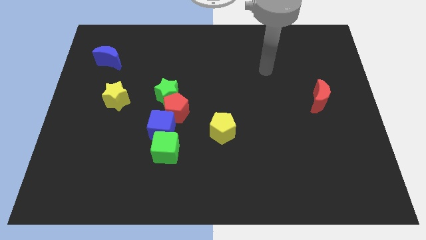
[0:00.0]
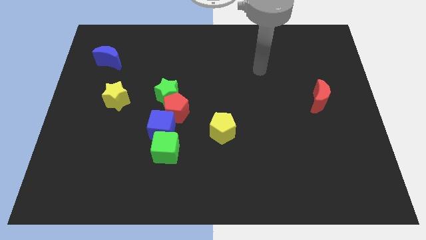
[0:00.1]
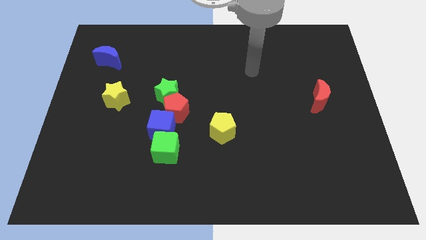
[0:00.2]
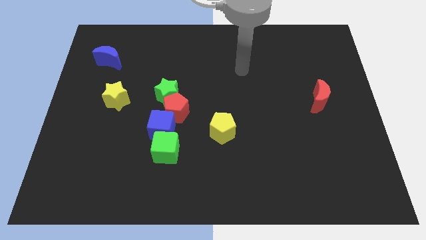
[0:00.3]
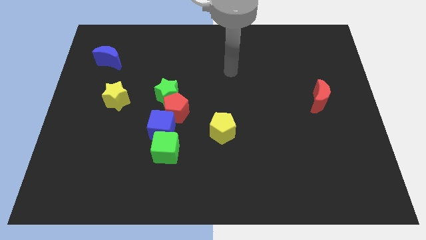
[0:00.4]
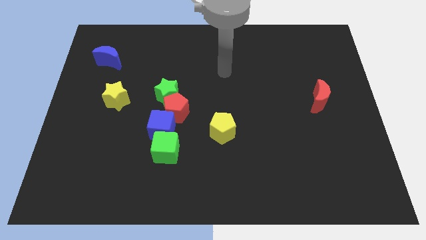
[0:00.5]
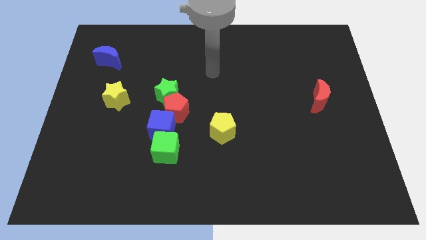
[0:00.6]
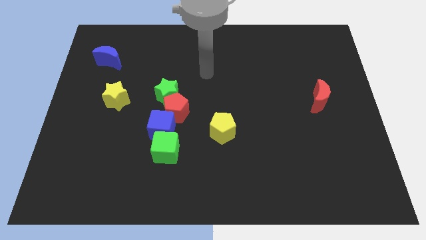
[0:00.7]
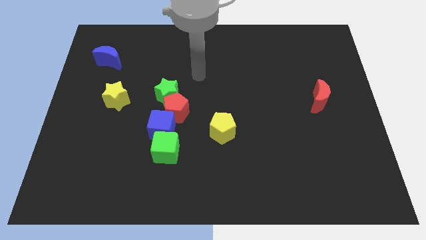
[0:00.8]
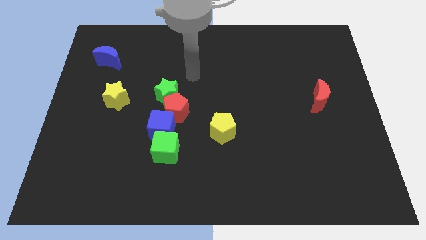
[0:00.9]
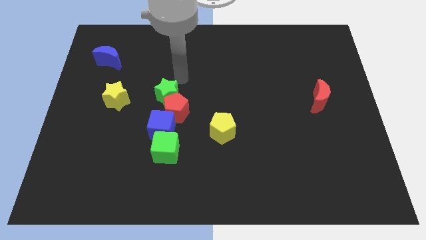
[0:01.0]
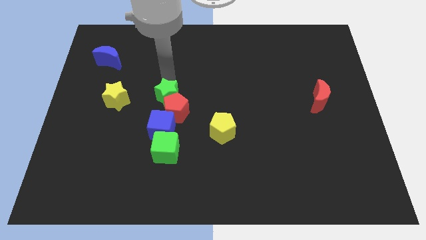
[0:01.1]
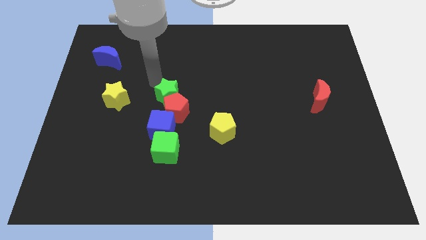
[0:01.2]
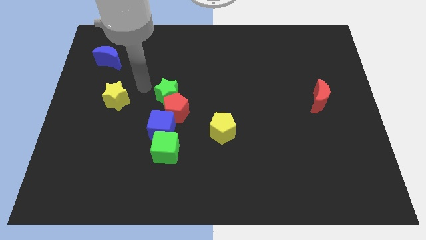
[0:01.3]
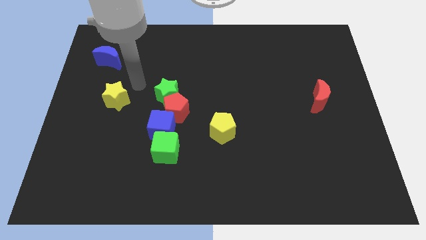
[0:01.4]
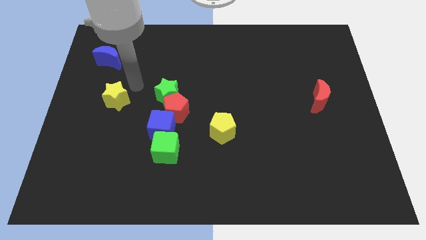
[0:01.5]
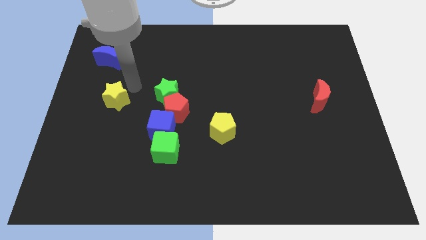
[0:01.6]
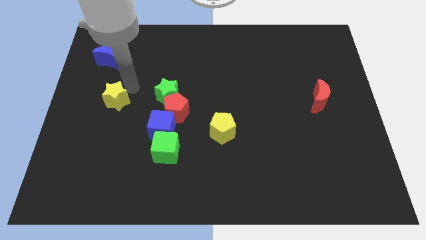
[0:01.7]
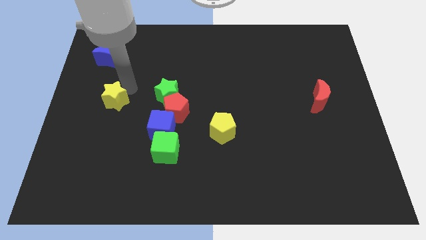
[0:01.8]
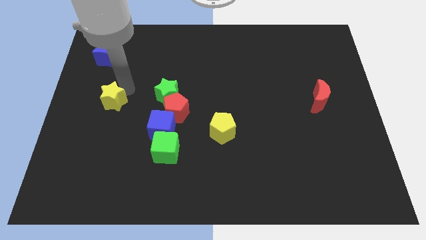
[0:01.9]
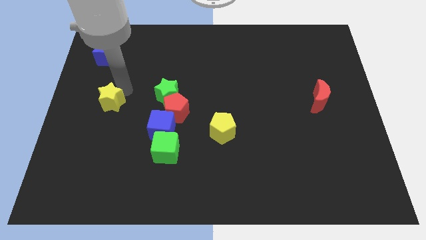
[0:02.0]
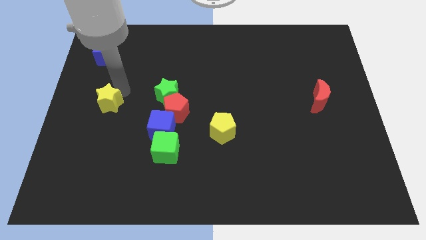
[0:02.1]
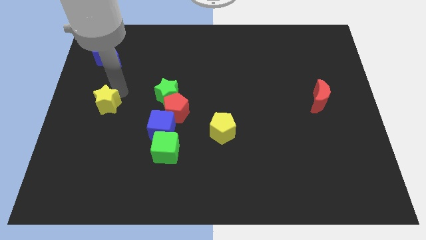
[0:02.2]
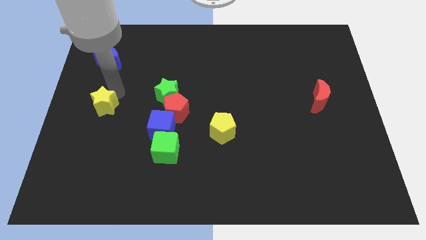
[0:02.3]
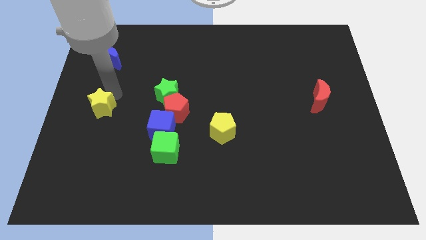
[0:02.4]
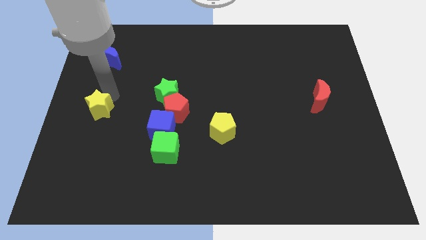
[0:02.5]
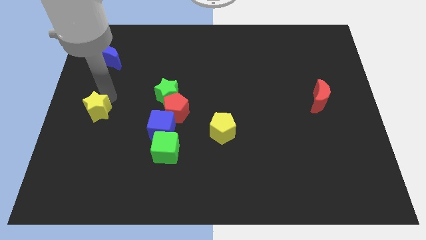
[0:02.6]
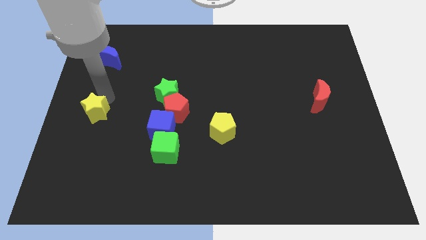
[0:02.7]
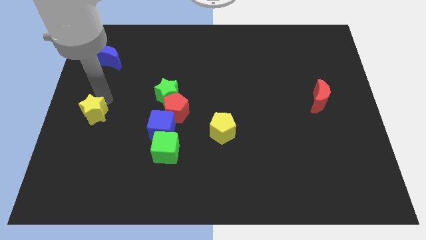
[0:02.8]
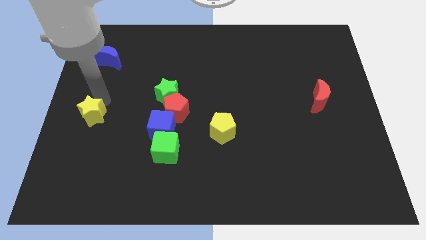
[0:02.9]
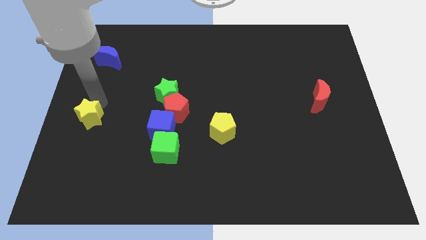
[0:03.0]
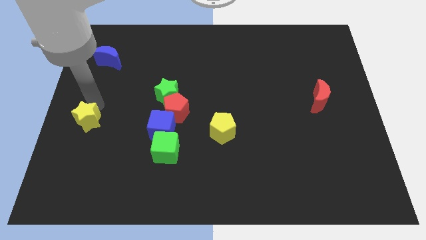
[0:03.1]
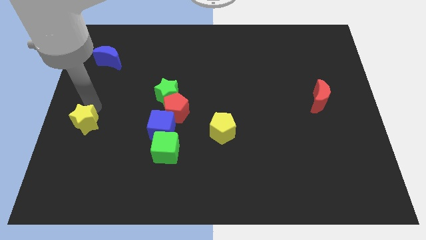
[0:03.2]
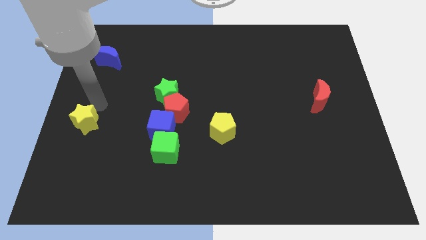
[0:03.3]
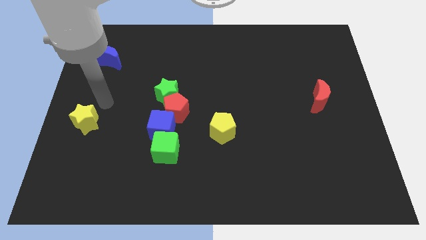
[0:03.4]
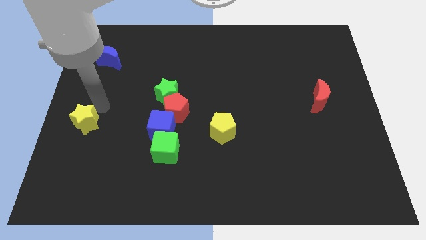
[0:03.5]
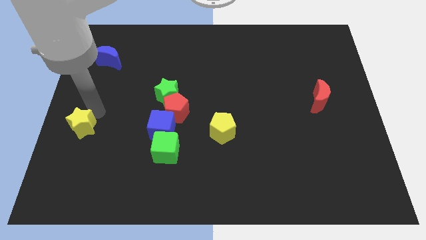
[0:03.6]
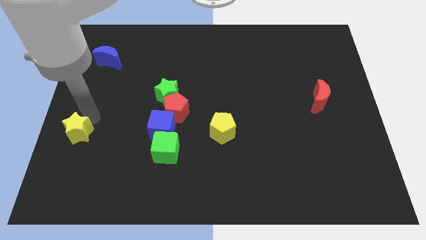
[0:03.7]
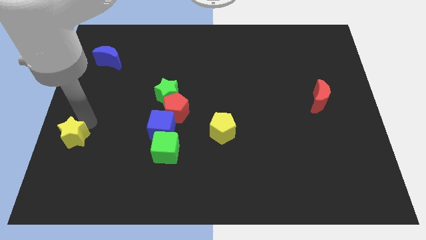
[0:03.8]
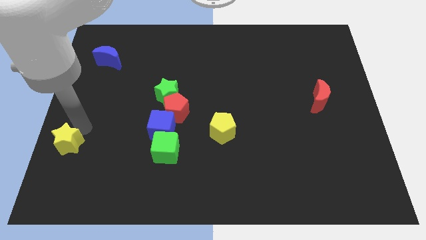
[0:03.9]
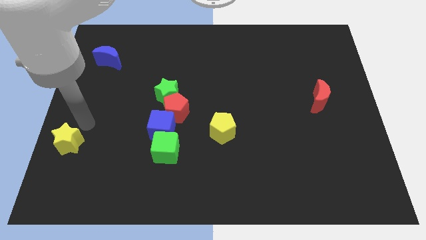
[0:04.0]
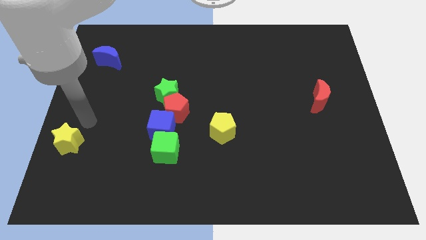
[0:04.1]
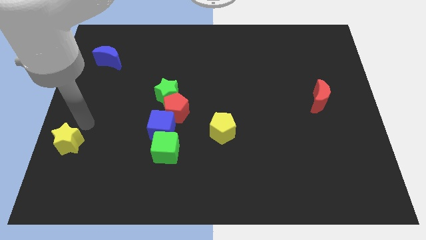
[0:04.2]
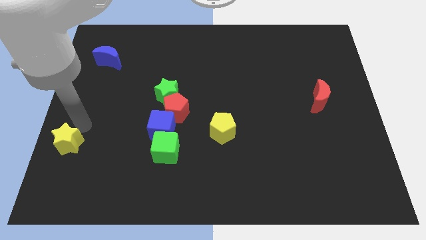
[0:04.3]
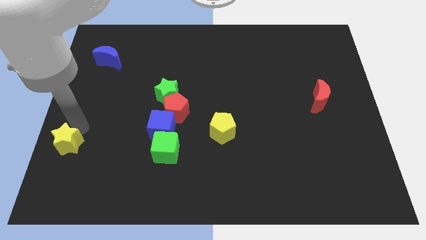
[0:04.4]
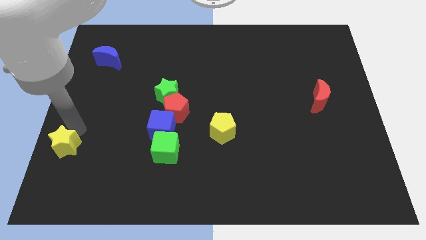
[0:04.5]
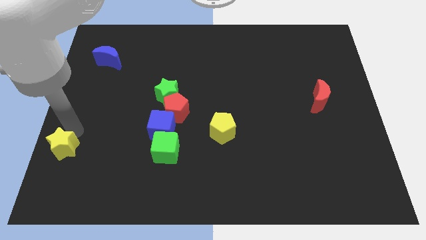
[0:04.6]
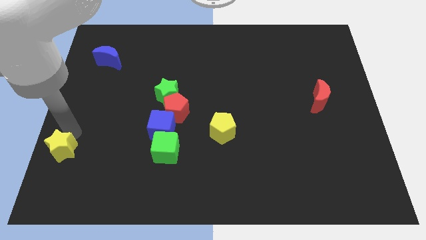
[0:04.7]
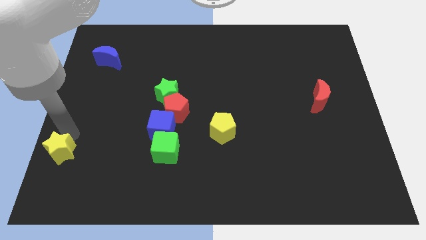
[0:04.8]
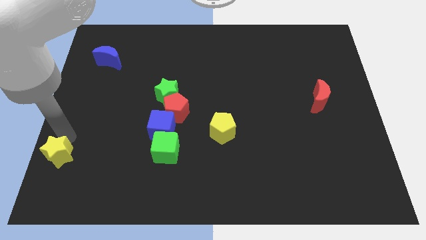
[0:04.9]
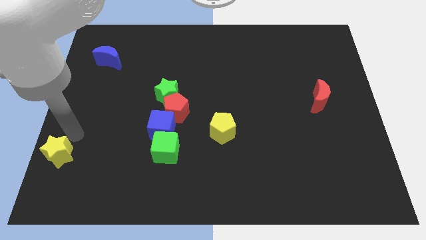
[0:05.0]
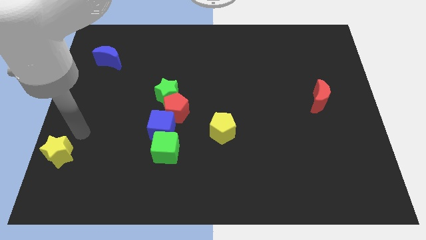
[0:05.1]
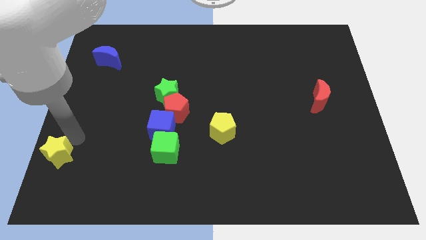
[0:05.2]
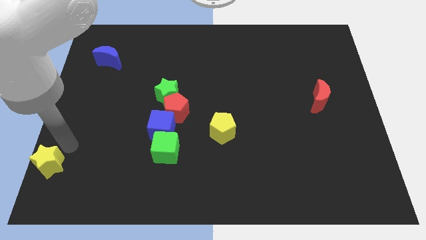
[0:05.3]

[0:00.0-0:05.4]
slide the yellow star to the bottom left of the board

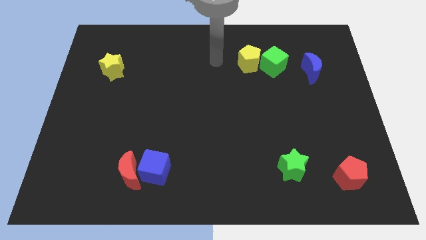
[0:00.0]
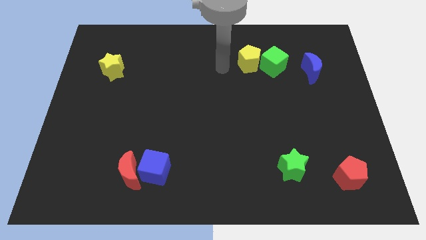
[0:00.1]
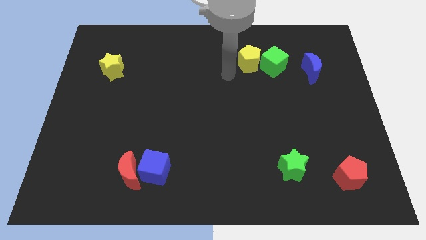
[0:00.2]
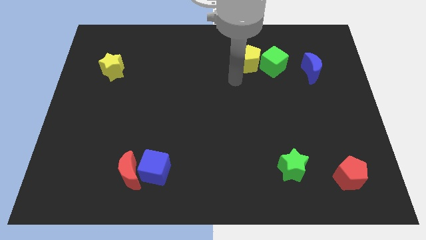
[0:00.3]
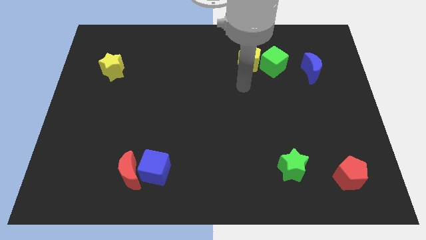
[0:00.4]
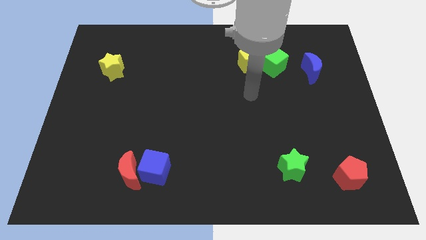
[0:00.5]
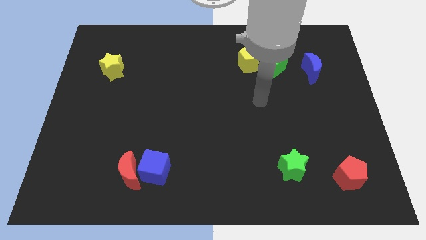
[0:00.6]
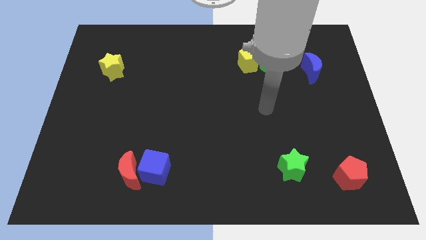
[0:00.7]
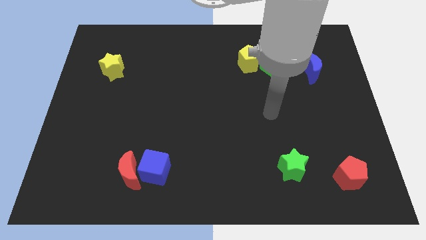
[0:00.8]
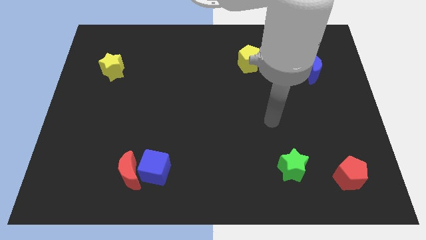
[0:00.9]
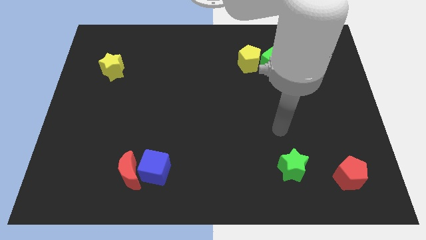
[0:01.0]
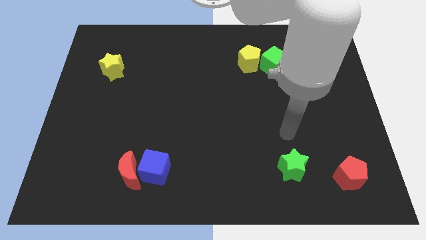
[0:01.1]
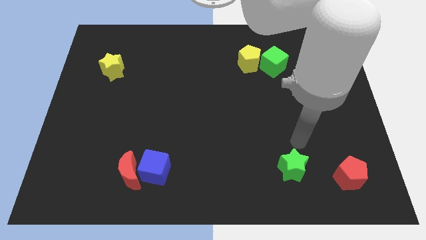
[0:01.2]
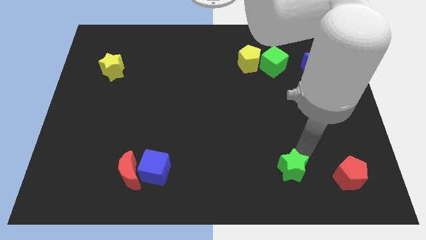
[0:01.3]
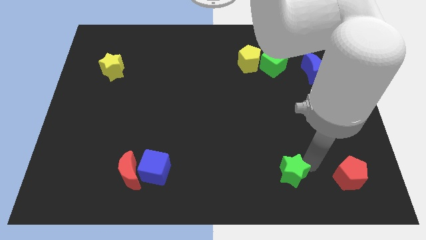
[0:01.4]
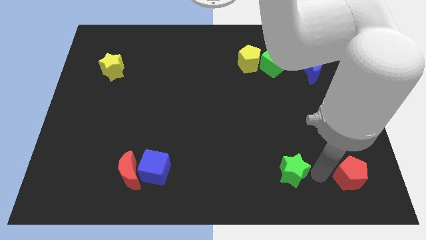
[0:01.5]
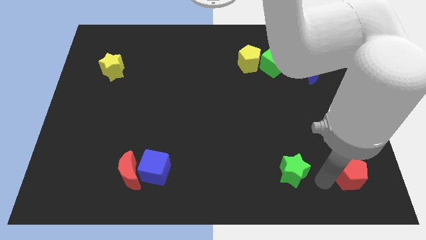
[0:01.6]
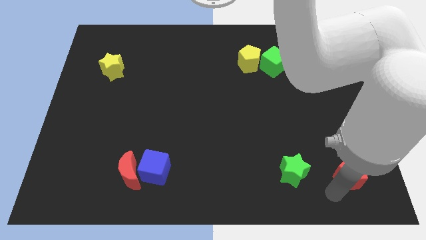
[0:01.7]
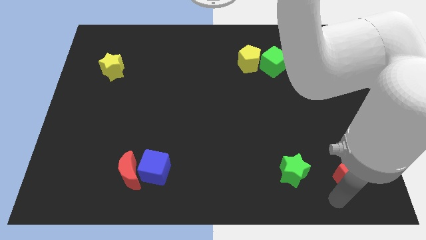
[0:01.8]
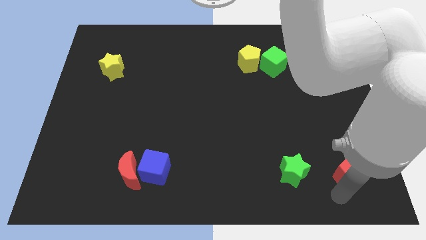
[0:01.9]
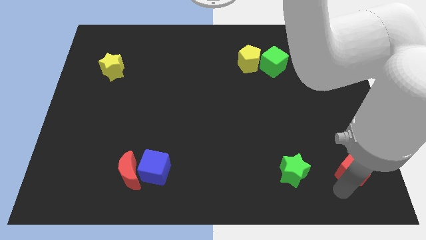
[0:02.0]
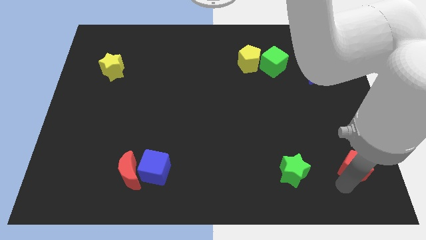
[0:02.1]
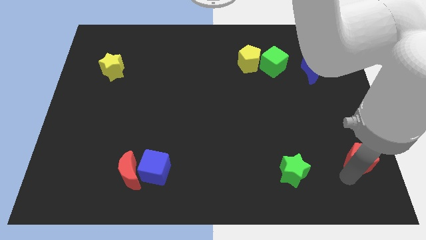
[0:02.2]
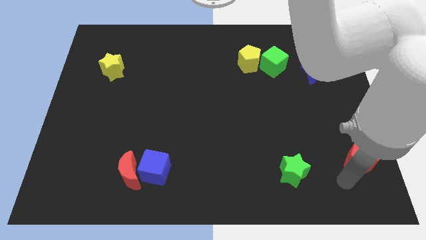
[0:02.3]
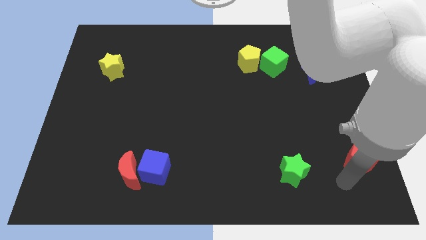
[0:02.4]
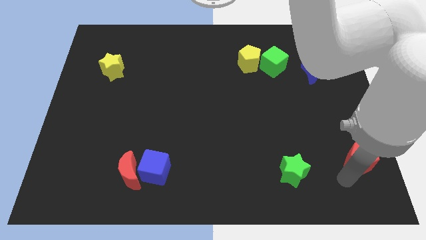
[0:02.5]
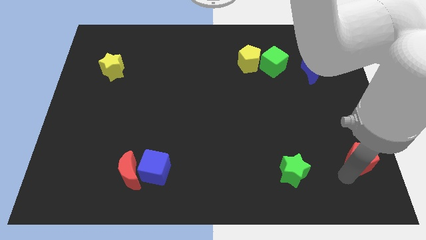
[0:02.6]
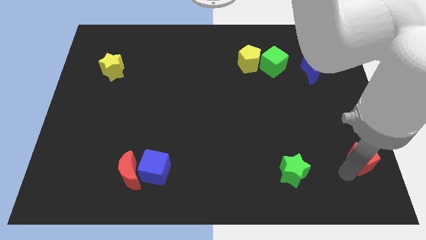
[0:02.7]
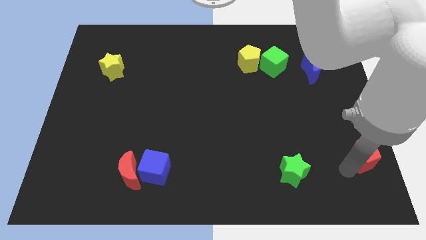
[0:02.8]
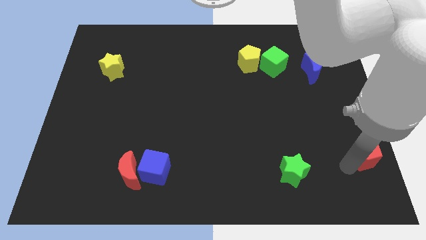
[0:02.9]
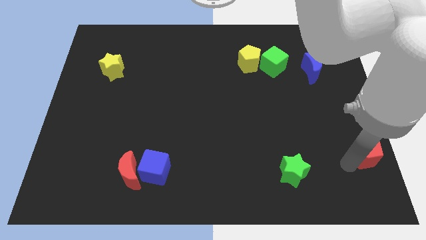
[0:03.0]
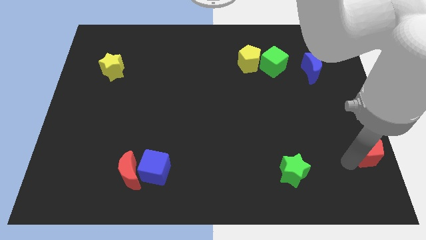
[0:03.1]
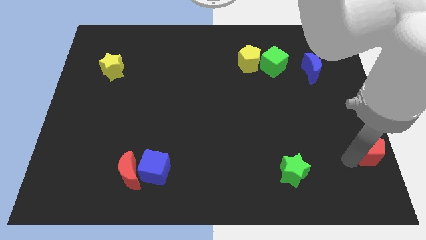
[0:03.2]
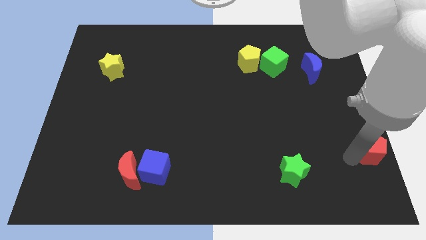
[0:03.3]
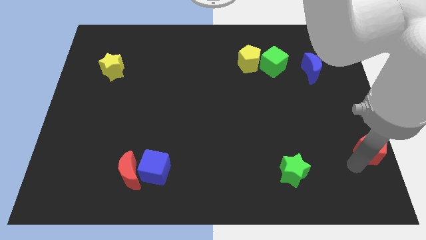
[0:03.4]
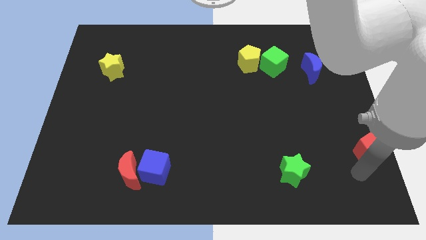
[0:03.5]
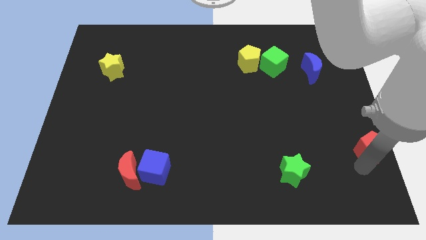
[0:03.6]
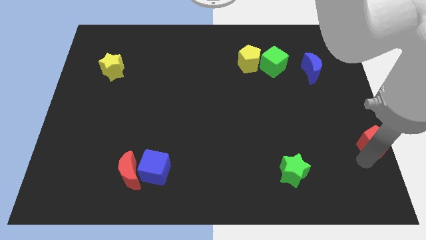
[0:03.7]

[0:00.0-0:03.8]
slide the red pentagon to the right side of the board
